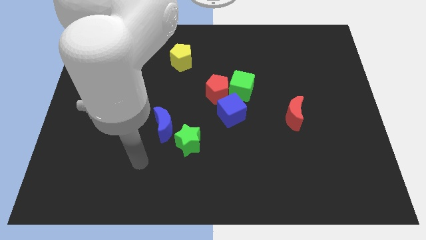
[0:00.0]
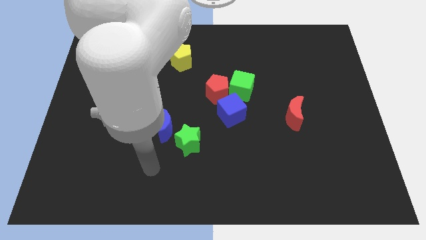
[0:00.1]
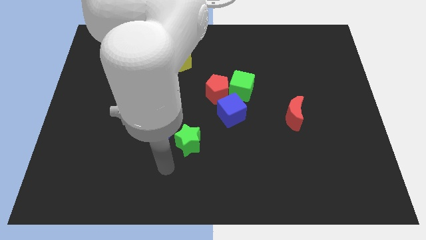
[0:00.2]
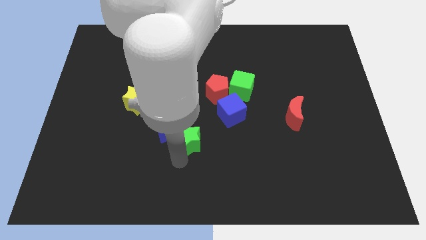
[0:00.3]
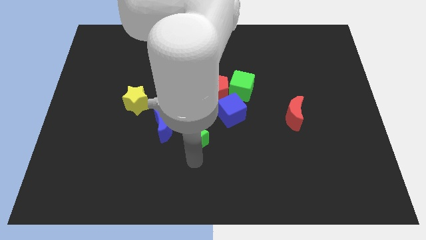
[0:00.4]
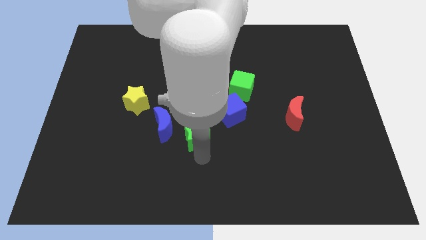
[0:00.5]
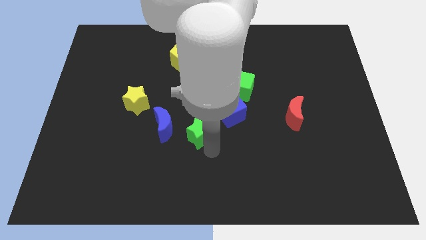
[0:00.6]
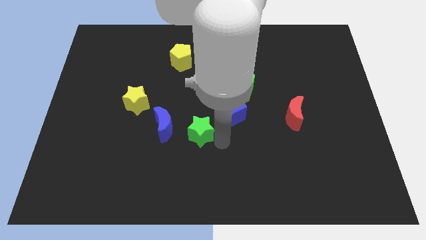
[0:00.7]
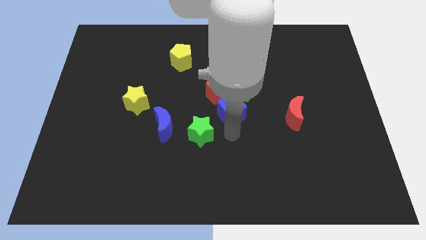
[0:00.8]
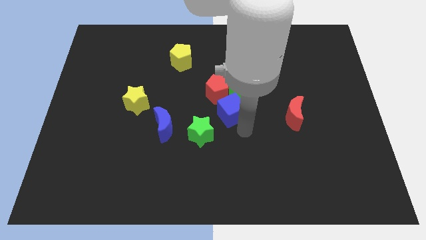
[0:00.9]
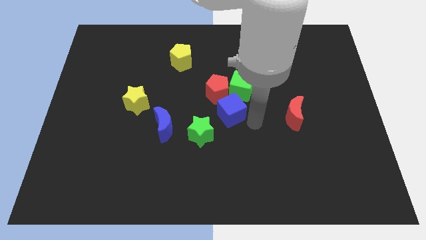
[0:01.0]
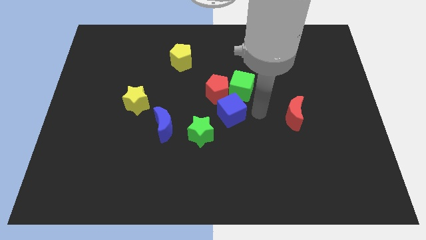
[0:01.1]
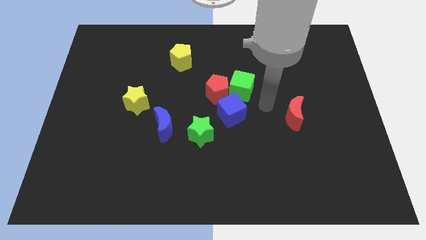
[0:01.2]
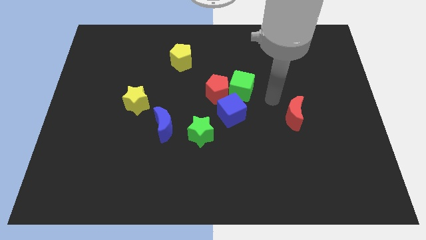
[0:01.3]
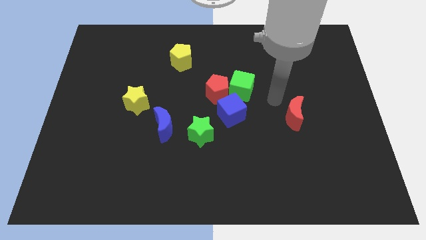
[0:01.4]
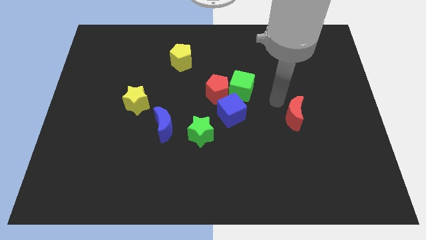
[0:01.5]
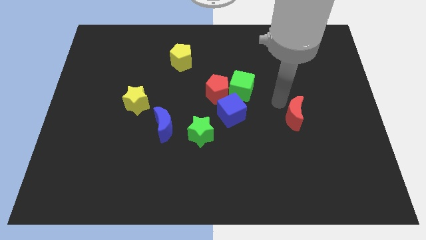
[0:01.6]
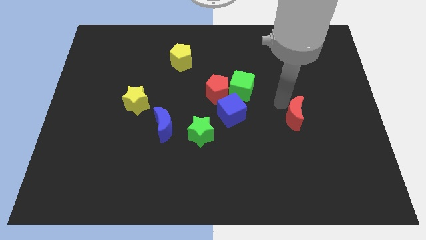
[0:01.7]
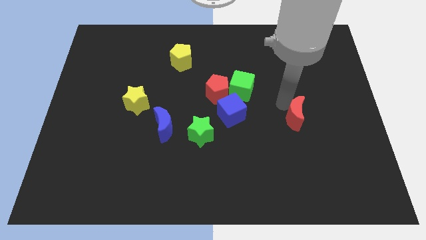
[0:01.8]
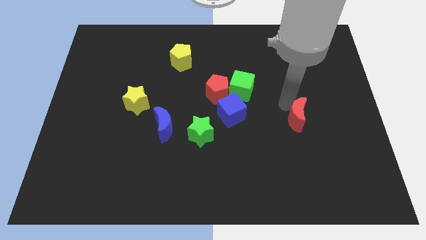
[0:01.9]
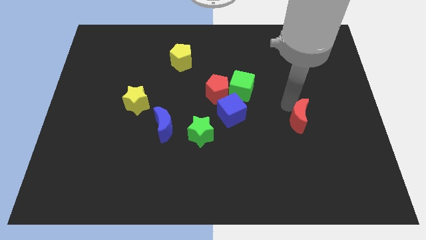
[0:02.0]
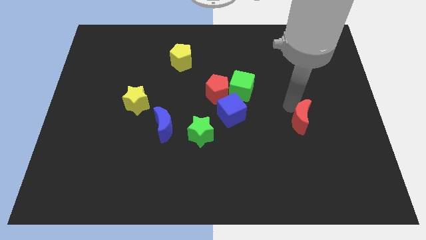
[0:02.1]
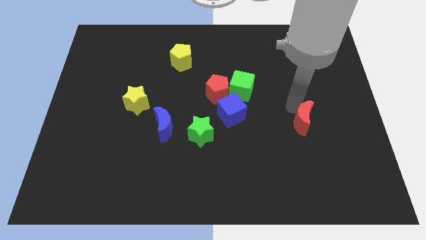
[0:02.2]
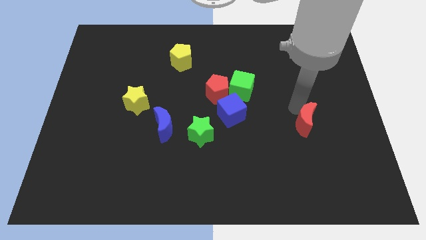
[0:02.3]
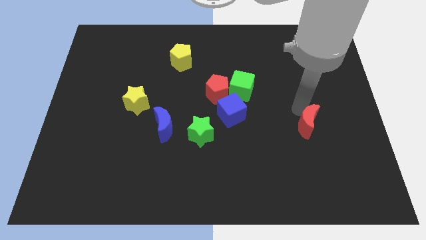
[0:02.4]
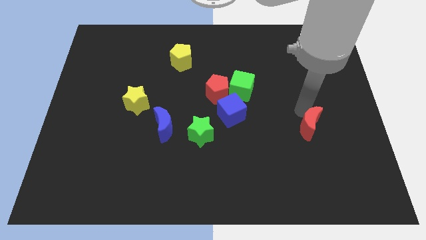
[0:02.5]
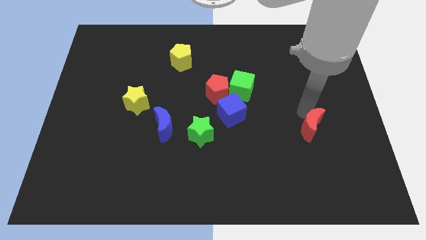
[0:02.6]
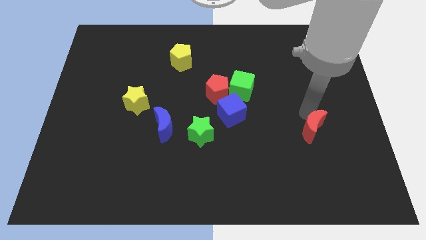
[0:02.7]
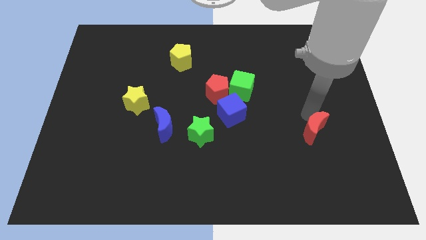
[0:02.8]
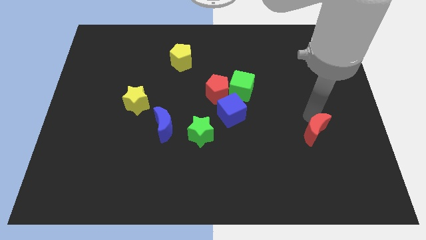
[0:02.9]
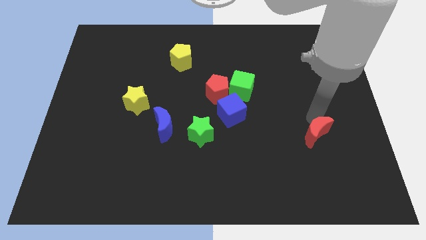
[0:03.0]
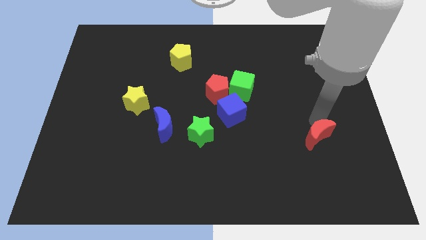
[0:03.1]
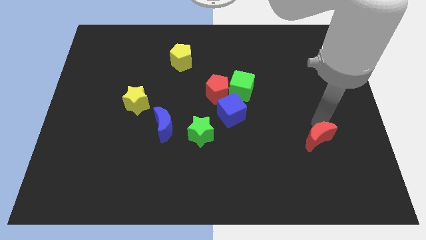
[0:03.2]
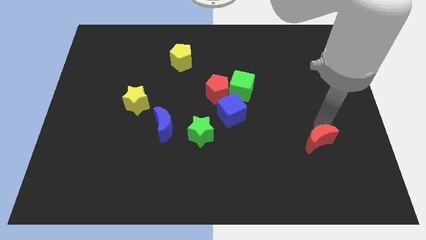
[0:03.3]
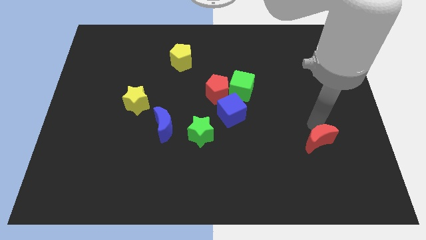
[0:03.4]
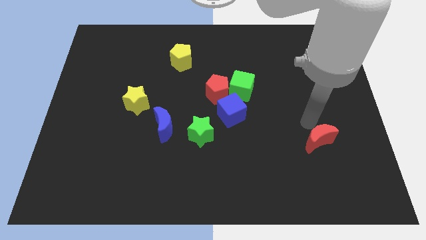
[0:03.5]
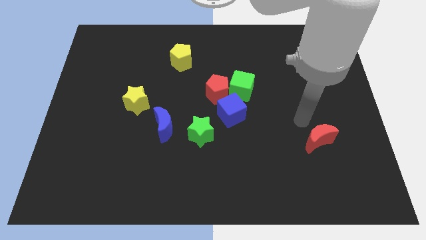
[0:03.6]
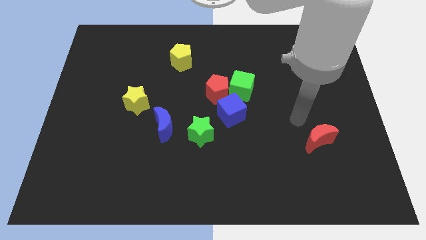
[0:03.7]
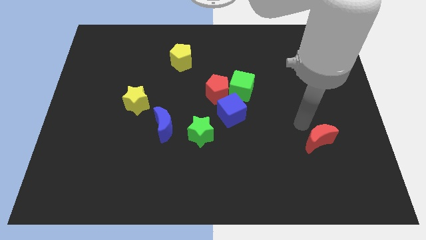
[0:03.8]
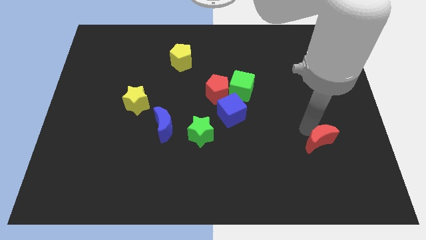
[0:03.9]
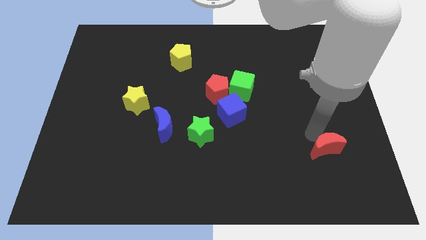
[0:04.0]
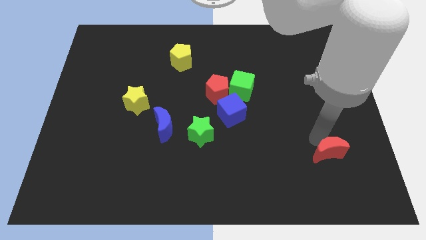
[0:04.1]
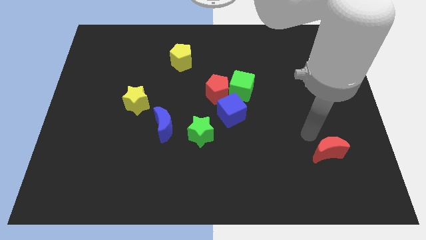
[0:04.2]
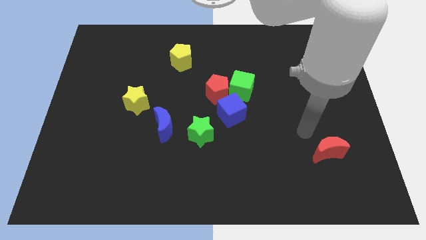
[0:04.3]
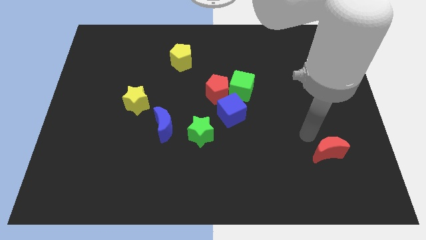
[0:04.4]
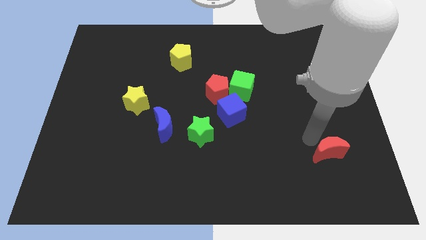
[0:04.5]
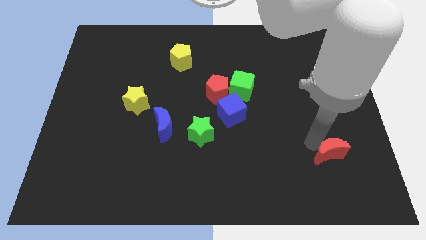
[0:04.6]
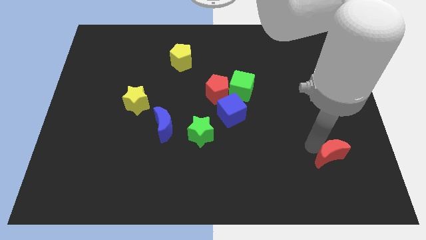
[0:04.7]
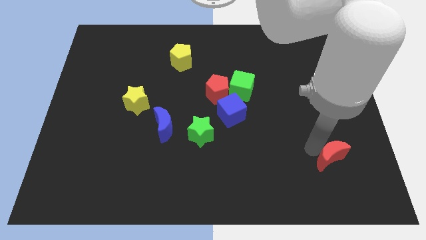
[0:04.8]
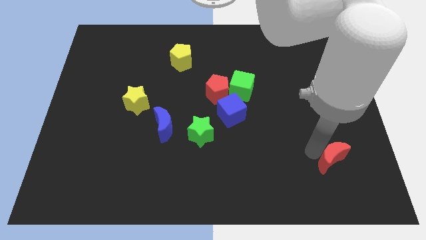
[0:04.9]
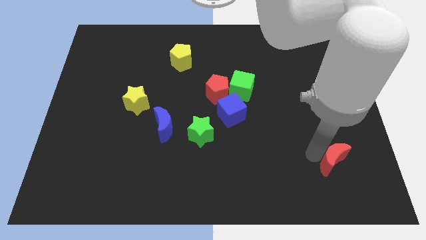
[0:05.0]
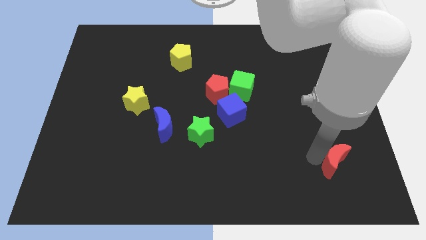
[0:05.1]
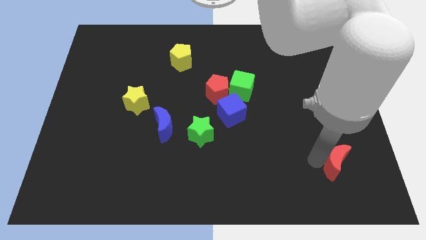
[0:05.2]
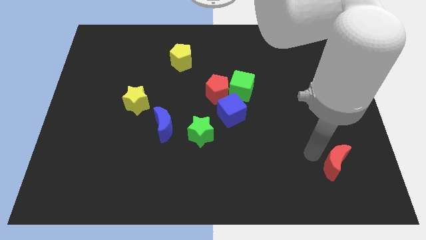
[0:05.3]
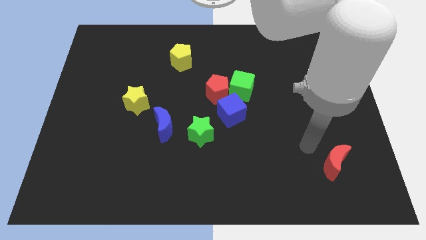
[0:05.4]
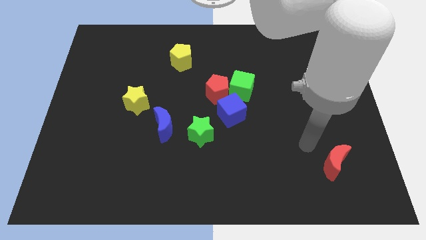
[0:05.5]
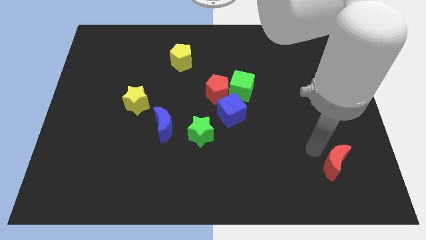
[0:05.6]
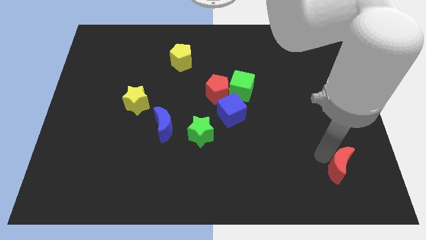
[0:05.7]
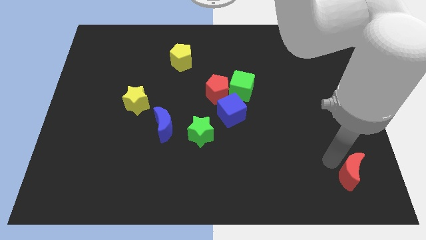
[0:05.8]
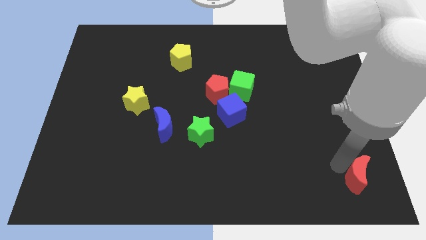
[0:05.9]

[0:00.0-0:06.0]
move the red moon to the bottom right corner

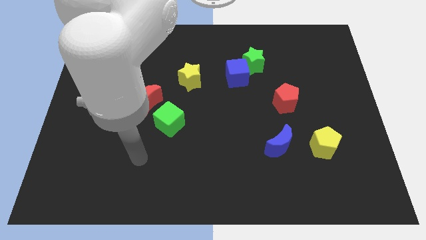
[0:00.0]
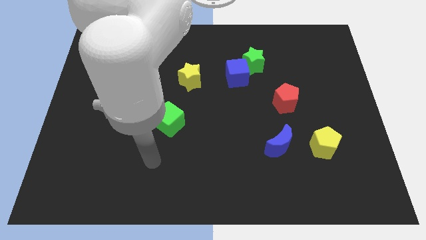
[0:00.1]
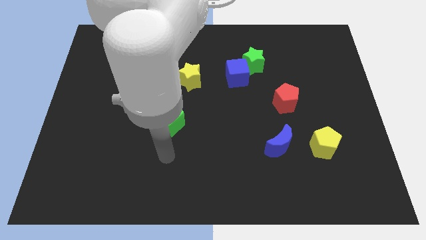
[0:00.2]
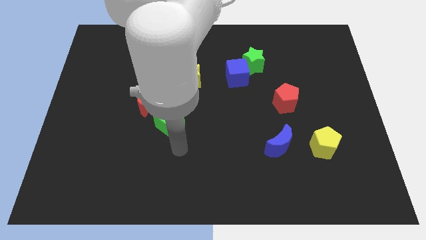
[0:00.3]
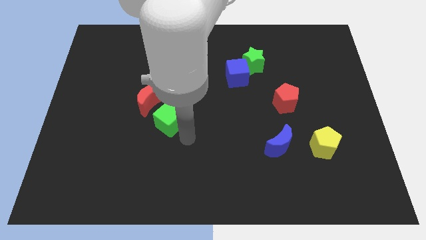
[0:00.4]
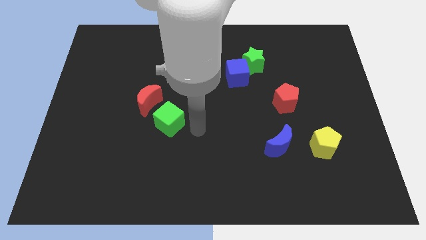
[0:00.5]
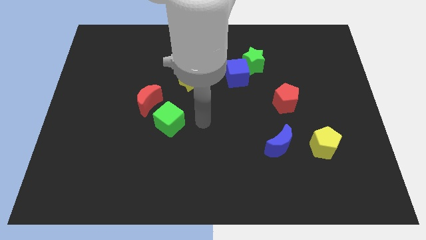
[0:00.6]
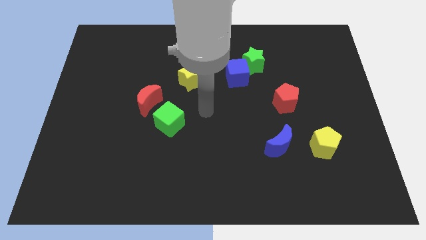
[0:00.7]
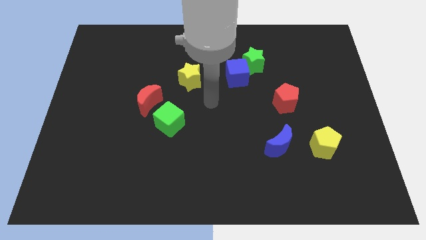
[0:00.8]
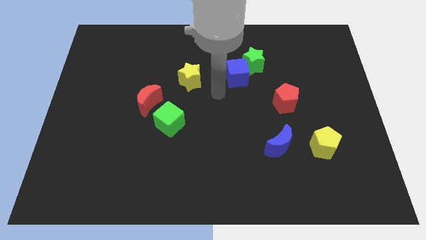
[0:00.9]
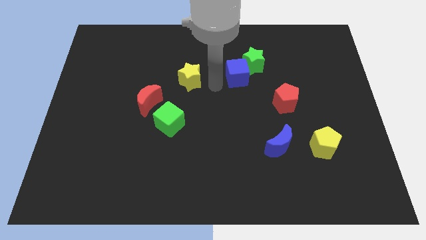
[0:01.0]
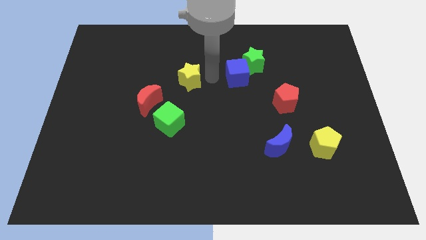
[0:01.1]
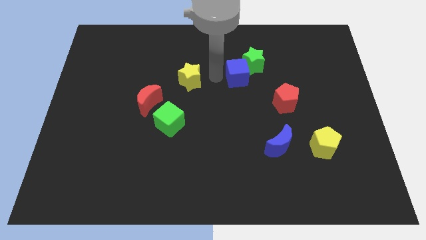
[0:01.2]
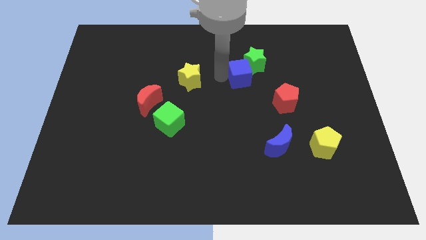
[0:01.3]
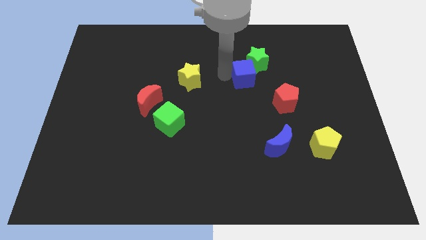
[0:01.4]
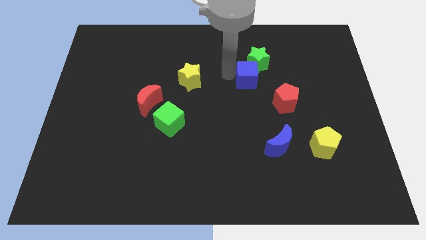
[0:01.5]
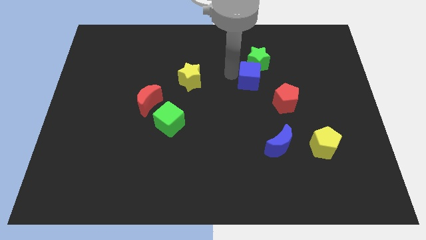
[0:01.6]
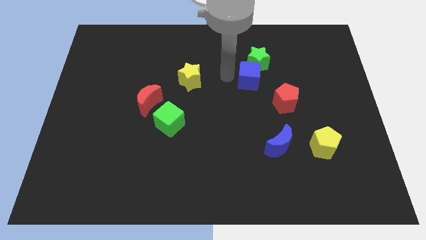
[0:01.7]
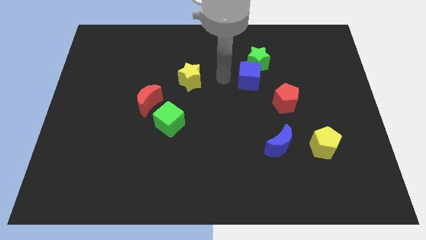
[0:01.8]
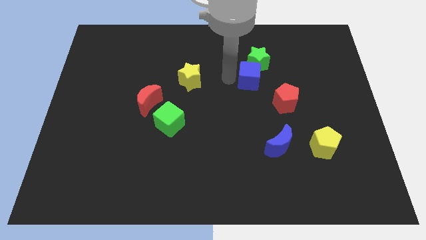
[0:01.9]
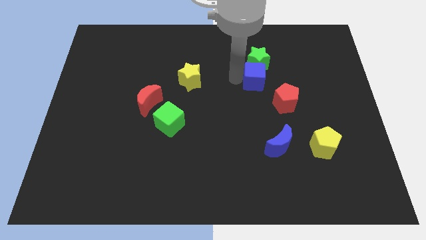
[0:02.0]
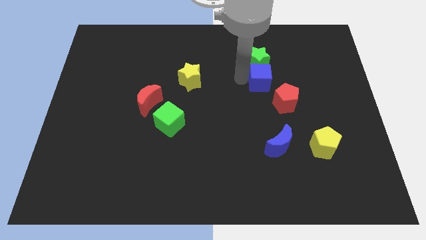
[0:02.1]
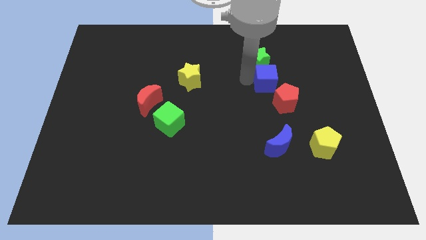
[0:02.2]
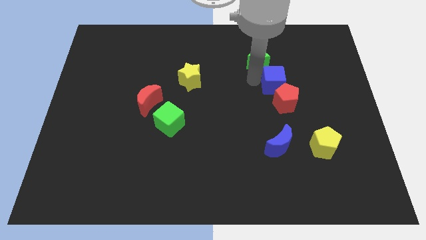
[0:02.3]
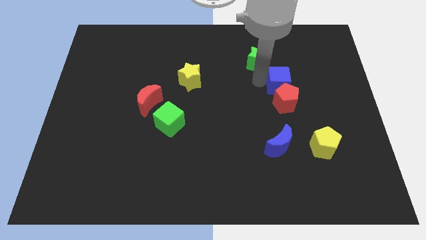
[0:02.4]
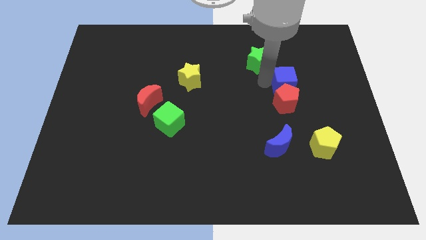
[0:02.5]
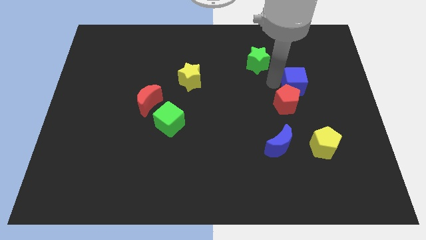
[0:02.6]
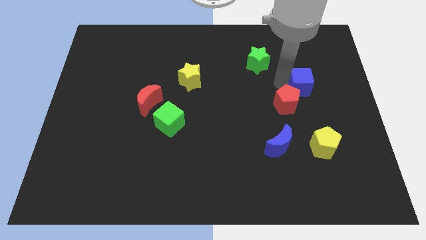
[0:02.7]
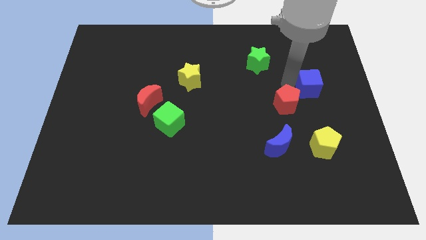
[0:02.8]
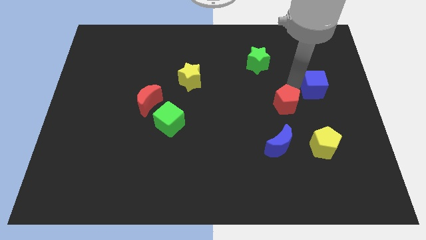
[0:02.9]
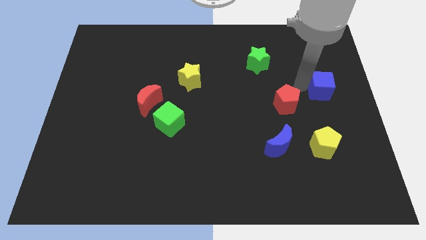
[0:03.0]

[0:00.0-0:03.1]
slide the blue cube to the right side of the board
